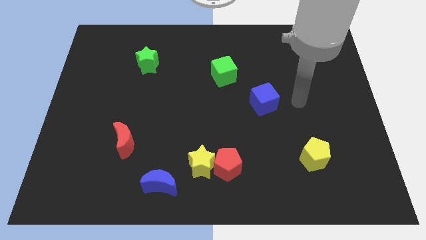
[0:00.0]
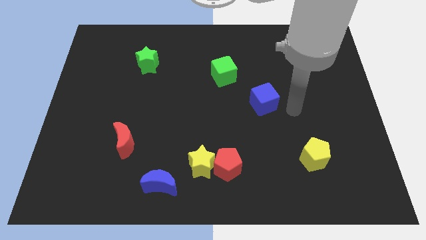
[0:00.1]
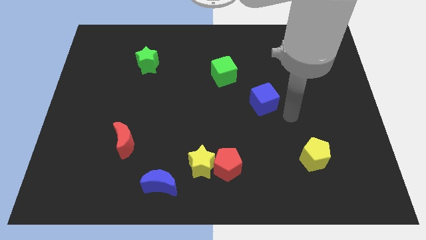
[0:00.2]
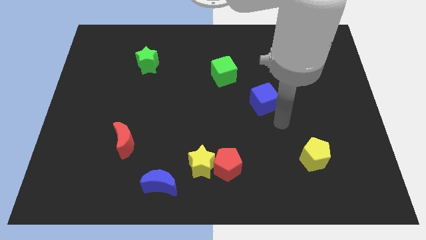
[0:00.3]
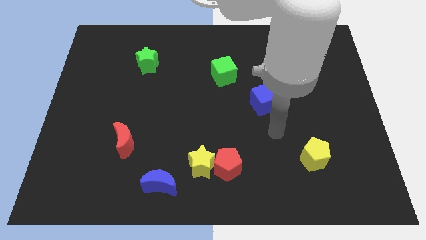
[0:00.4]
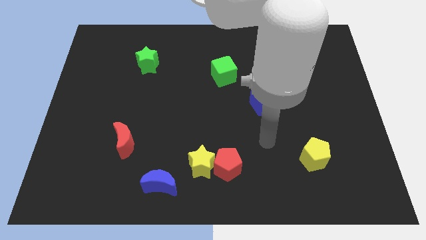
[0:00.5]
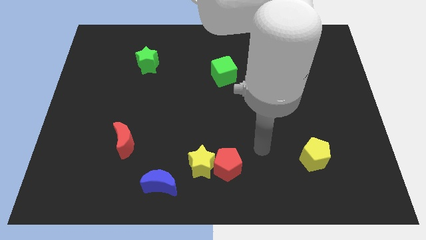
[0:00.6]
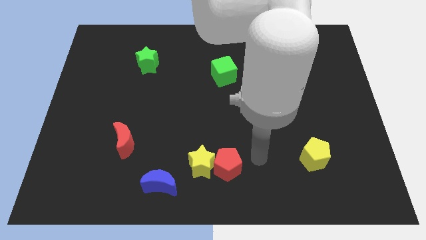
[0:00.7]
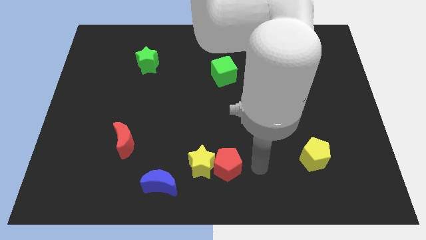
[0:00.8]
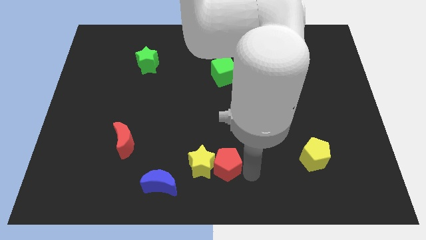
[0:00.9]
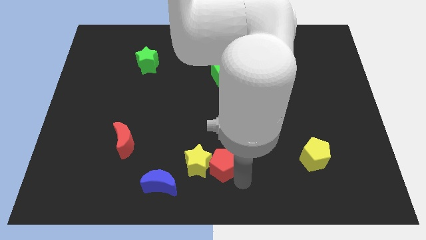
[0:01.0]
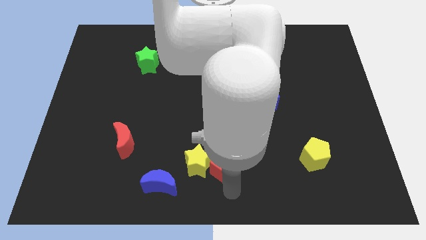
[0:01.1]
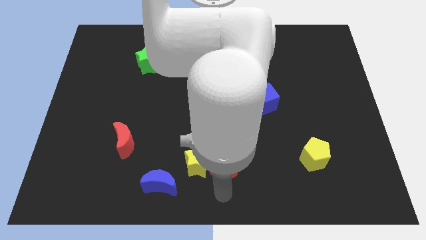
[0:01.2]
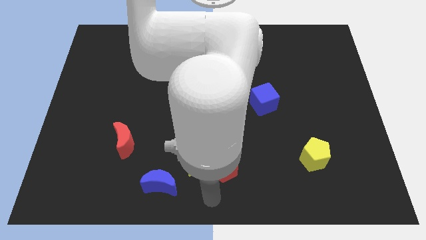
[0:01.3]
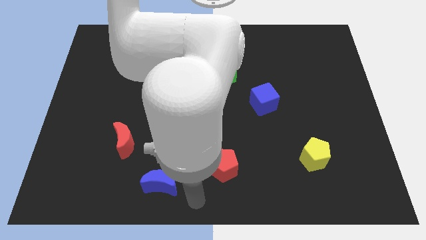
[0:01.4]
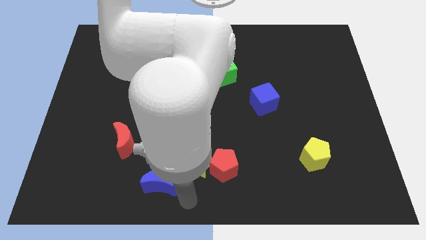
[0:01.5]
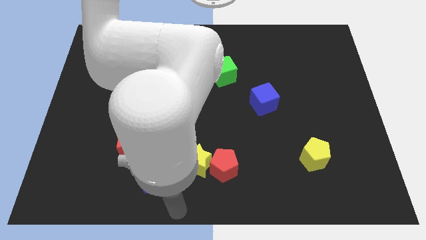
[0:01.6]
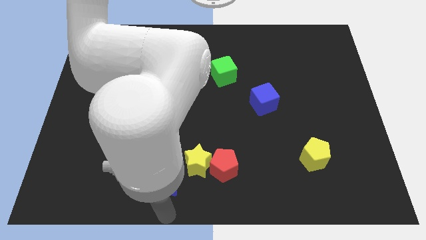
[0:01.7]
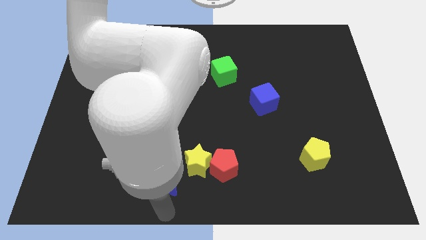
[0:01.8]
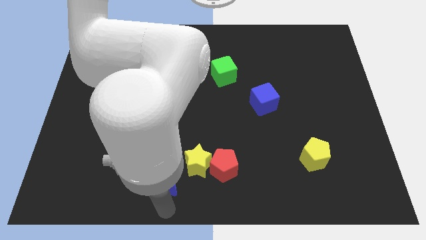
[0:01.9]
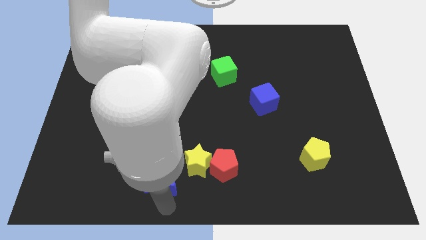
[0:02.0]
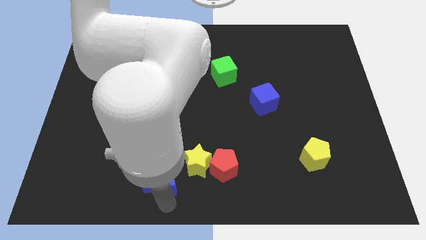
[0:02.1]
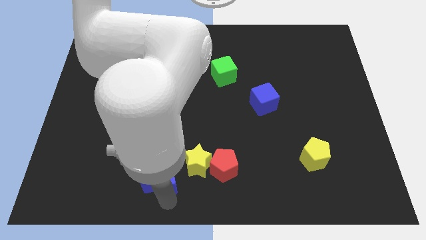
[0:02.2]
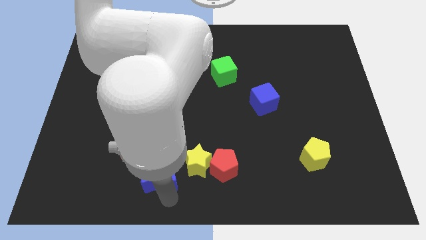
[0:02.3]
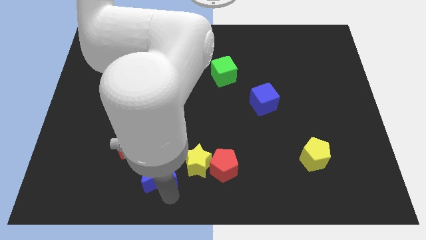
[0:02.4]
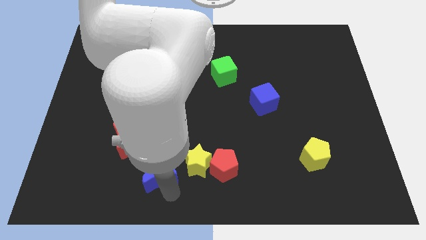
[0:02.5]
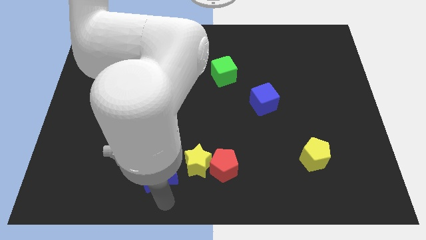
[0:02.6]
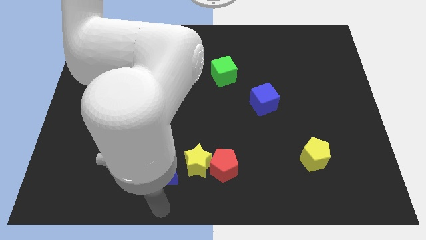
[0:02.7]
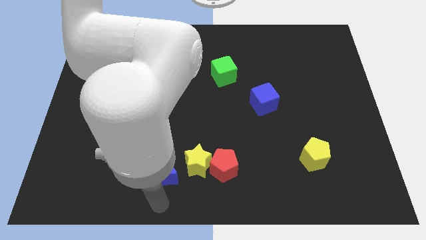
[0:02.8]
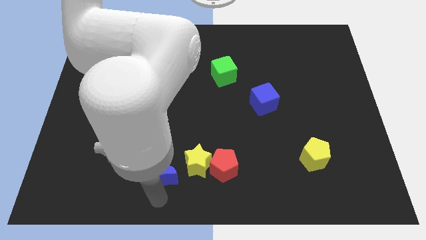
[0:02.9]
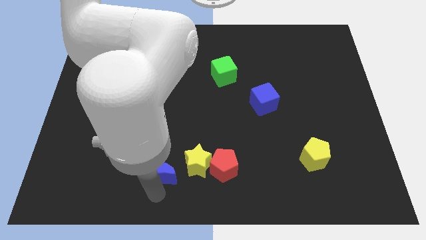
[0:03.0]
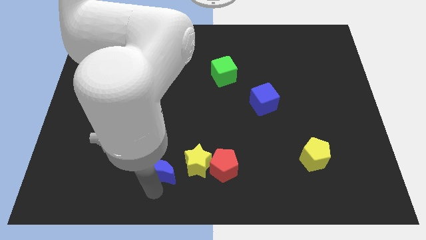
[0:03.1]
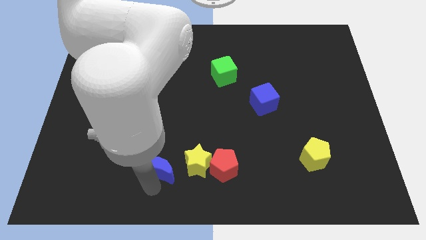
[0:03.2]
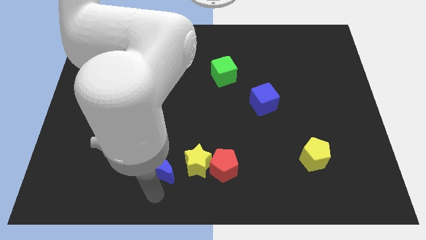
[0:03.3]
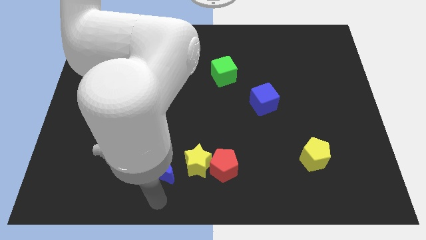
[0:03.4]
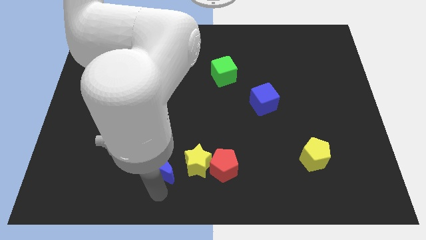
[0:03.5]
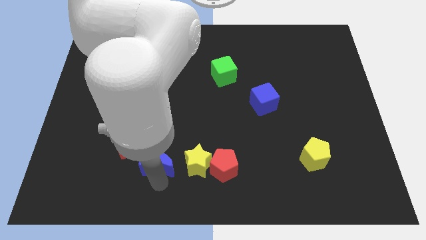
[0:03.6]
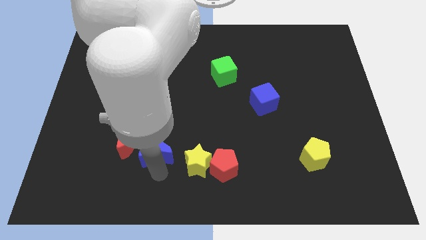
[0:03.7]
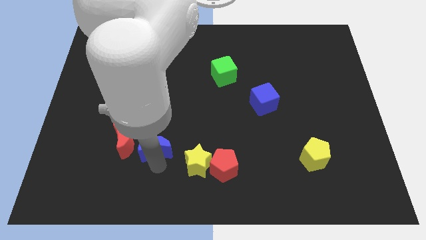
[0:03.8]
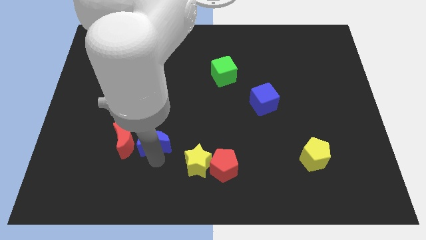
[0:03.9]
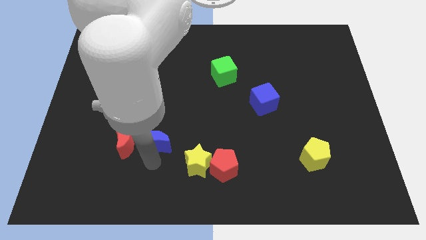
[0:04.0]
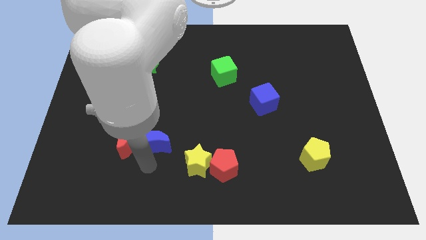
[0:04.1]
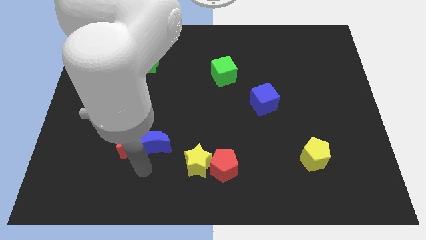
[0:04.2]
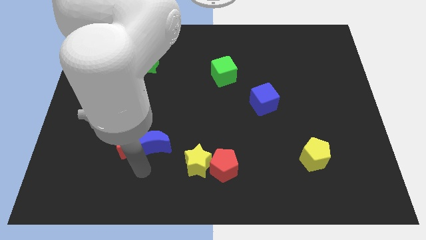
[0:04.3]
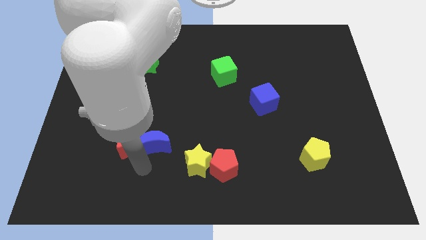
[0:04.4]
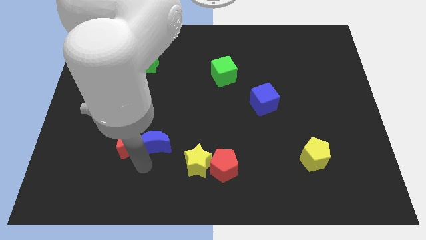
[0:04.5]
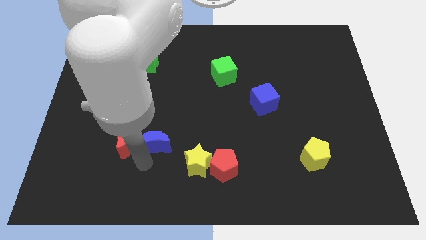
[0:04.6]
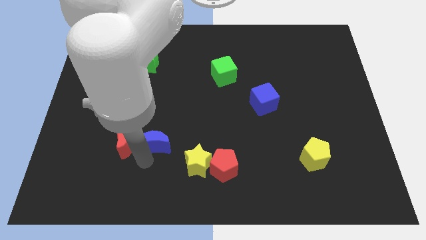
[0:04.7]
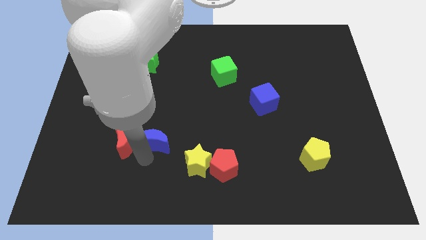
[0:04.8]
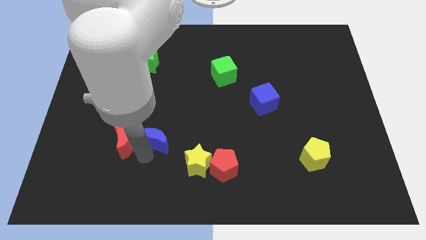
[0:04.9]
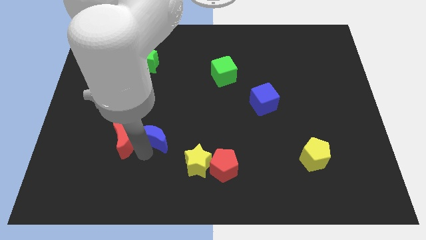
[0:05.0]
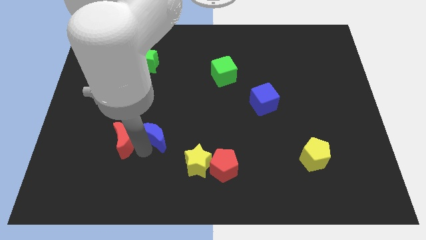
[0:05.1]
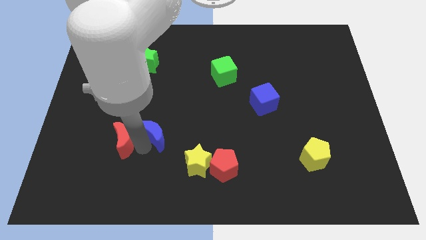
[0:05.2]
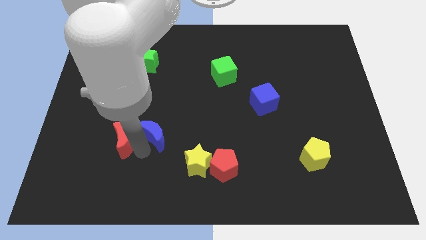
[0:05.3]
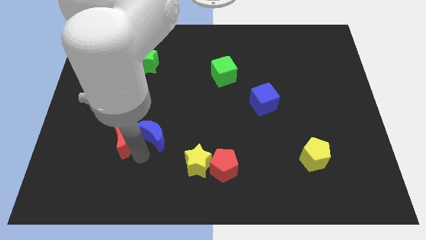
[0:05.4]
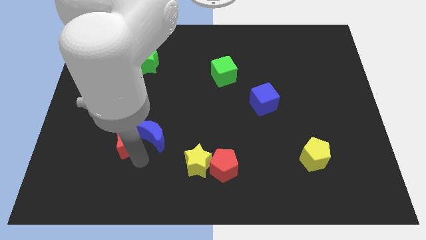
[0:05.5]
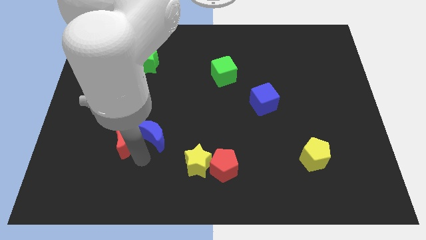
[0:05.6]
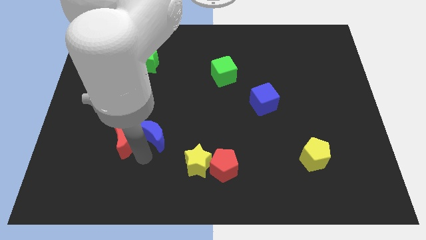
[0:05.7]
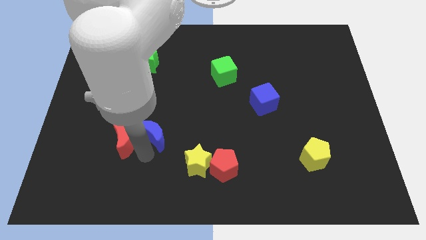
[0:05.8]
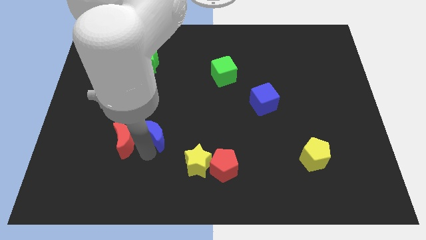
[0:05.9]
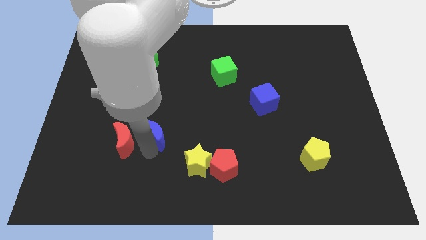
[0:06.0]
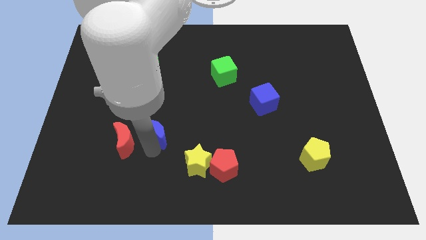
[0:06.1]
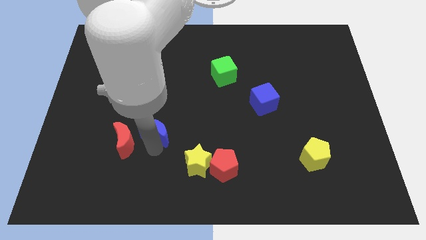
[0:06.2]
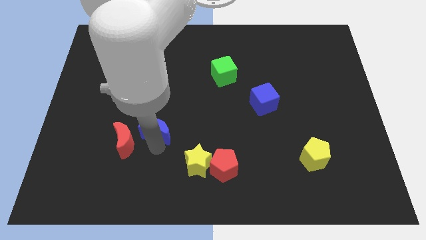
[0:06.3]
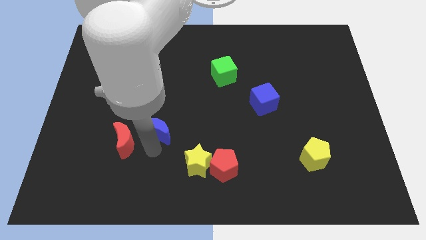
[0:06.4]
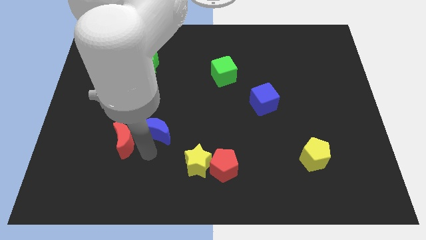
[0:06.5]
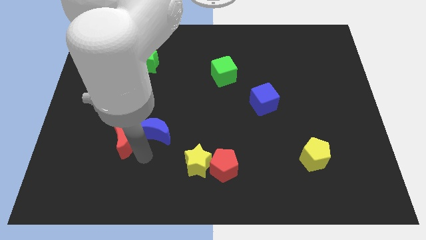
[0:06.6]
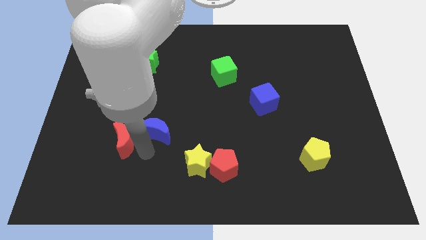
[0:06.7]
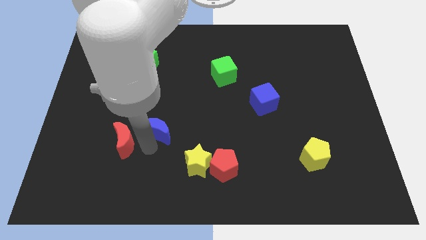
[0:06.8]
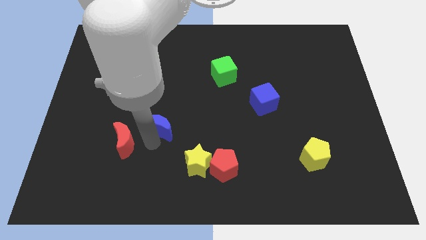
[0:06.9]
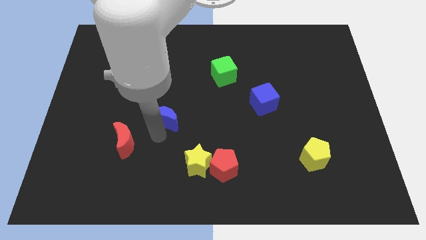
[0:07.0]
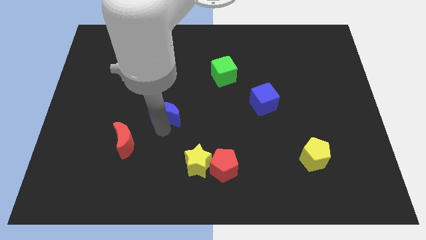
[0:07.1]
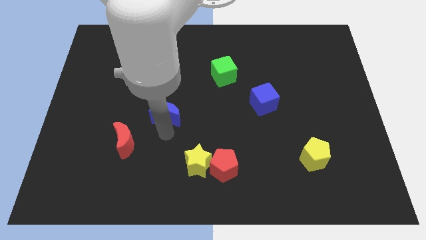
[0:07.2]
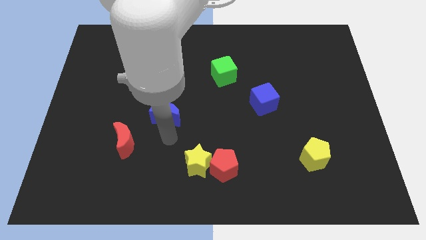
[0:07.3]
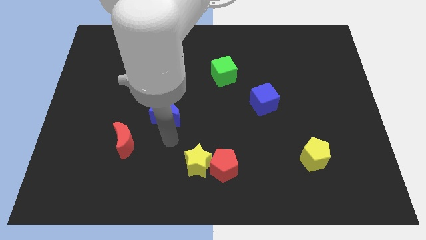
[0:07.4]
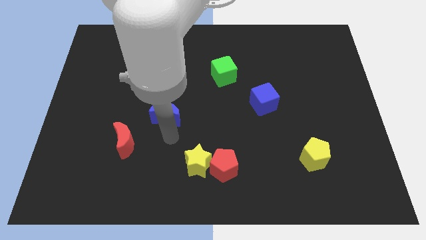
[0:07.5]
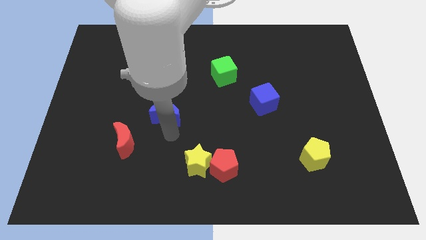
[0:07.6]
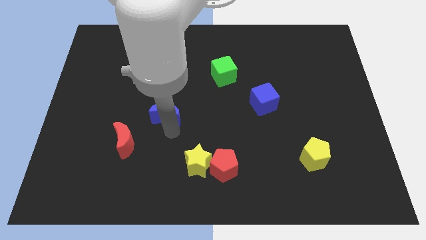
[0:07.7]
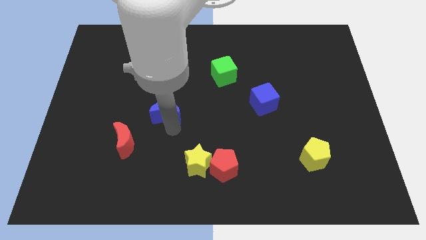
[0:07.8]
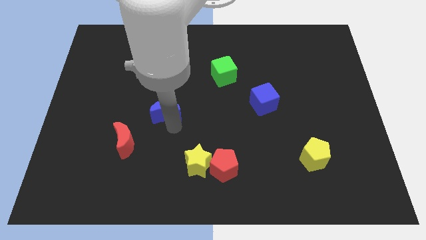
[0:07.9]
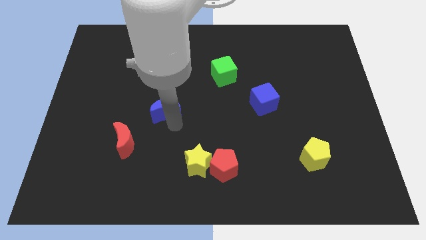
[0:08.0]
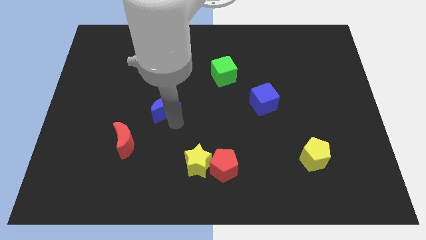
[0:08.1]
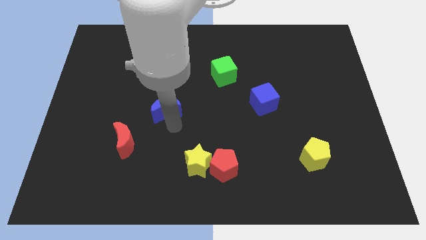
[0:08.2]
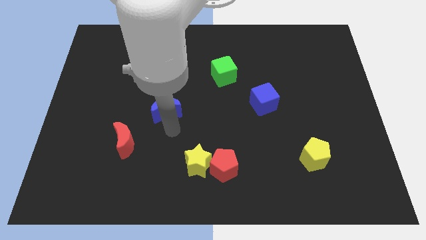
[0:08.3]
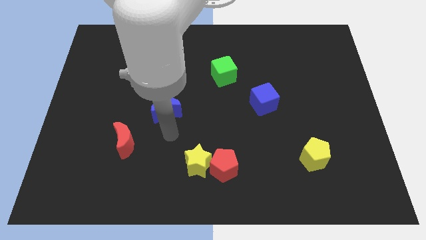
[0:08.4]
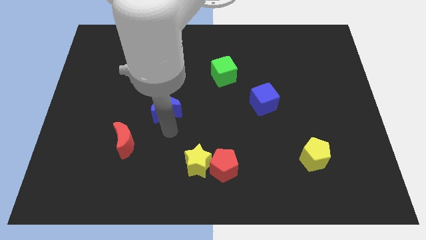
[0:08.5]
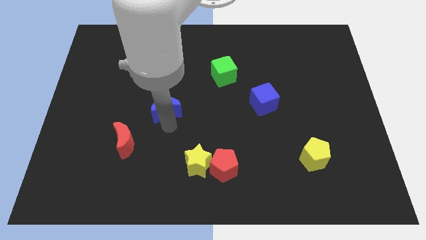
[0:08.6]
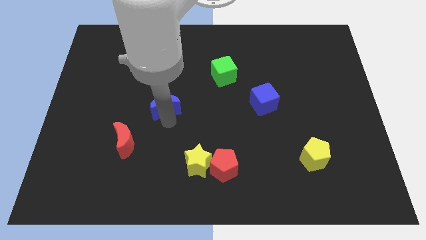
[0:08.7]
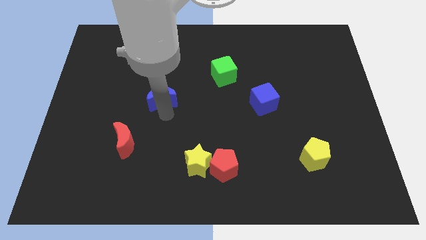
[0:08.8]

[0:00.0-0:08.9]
push the blue moon up
